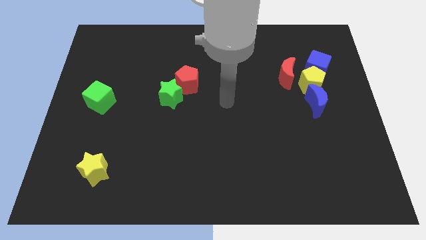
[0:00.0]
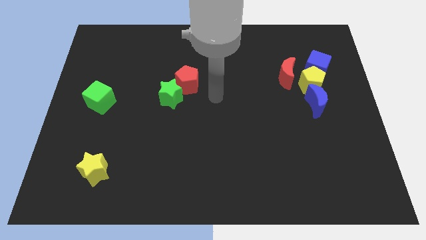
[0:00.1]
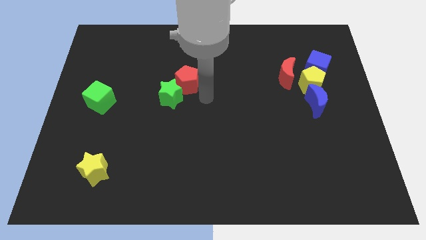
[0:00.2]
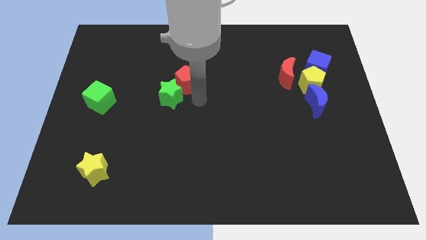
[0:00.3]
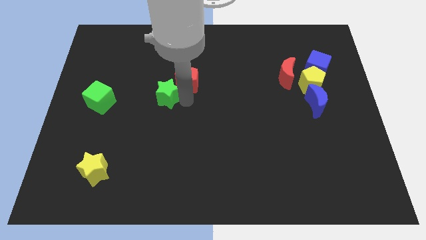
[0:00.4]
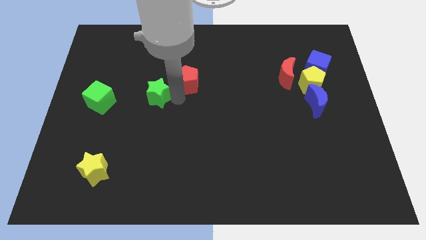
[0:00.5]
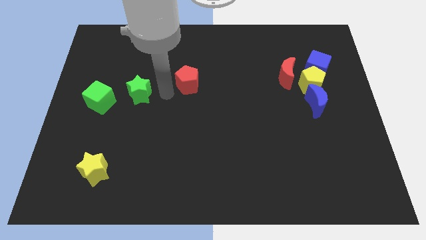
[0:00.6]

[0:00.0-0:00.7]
separate the red pentagon from the green star

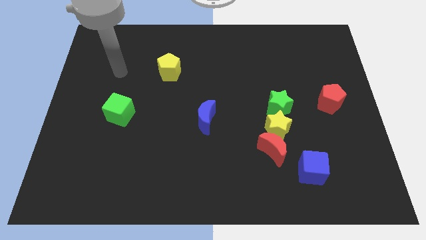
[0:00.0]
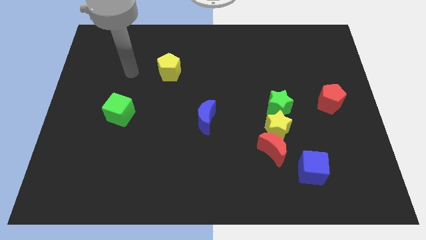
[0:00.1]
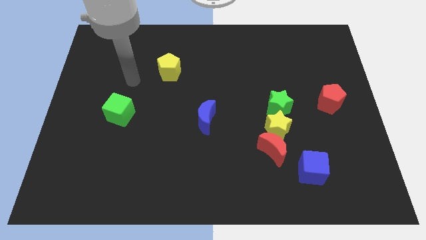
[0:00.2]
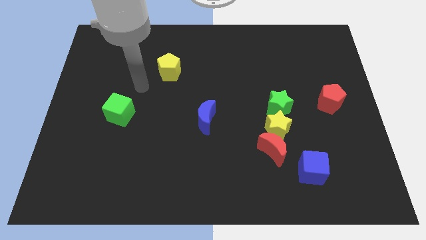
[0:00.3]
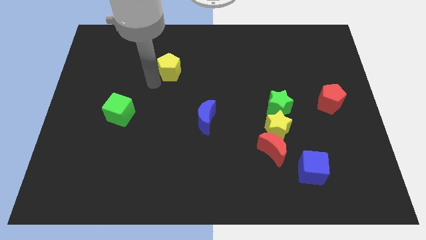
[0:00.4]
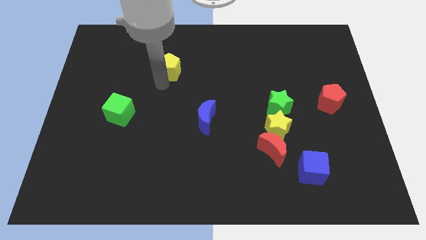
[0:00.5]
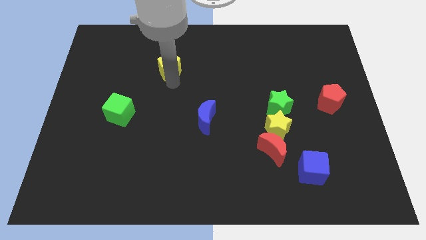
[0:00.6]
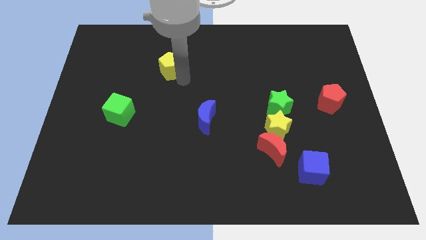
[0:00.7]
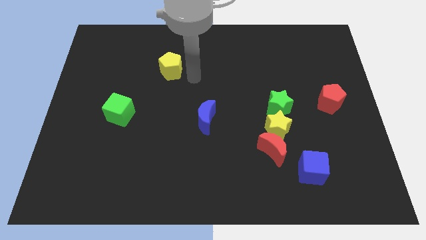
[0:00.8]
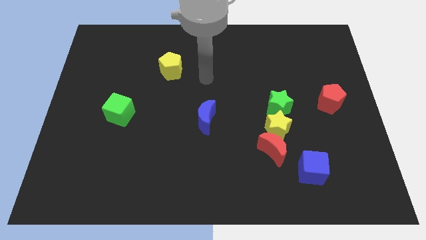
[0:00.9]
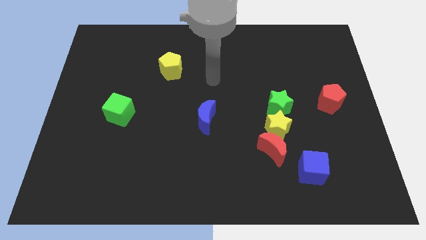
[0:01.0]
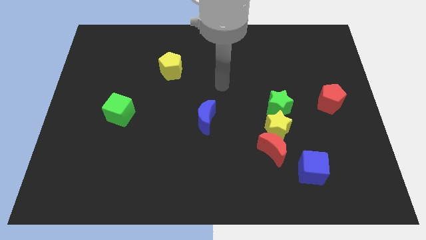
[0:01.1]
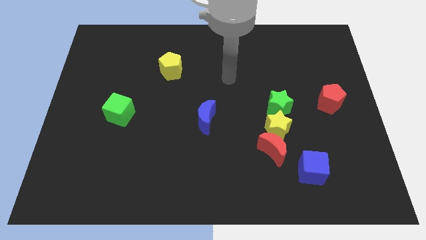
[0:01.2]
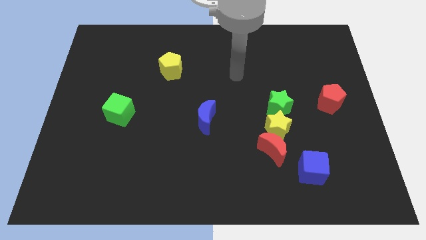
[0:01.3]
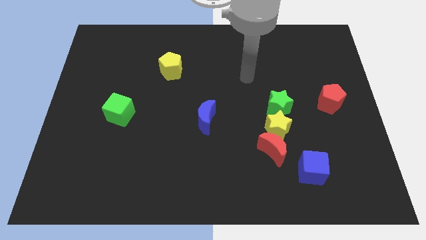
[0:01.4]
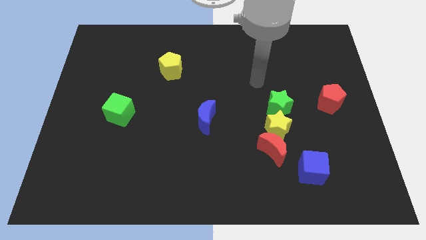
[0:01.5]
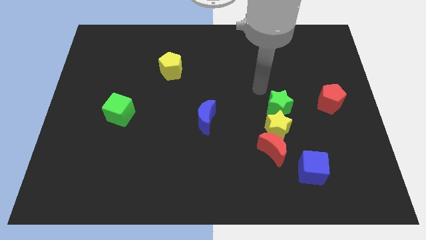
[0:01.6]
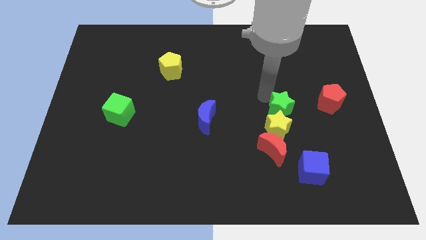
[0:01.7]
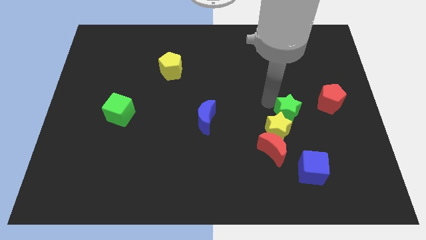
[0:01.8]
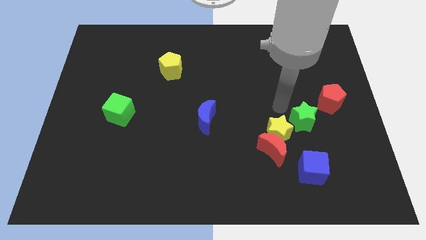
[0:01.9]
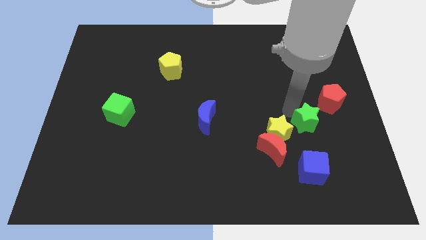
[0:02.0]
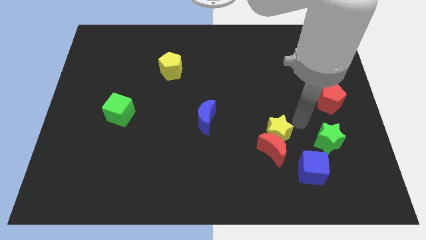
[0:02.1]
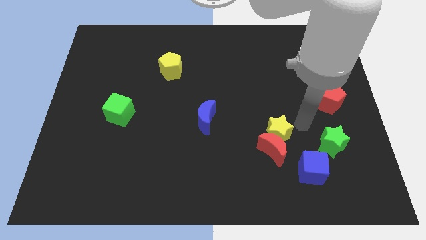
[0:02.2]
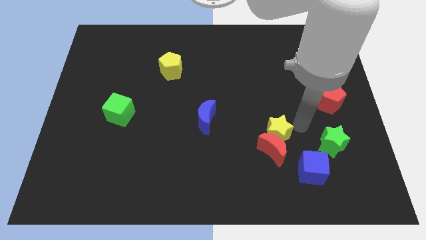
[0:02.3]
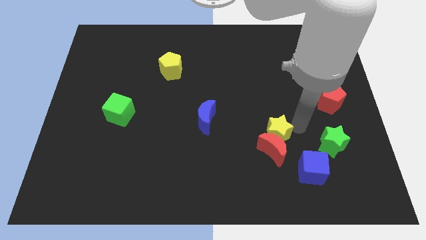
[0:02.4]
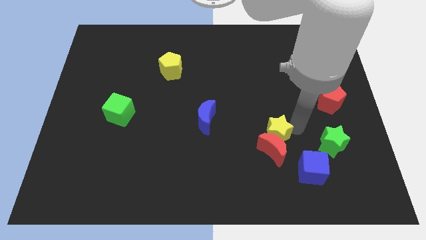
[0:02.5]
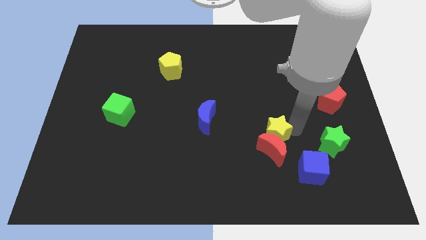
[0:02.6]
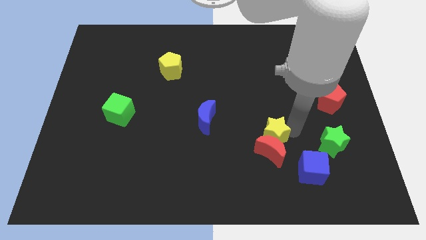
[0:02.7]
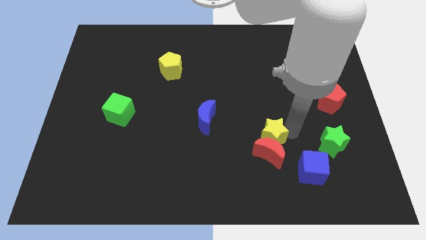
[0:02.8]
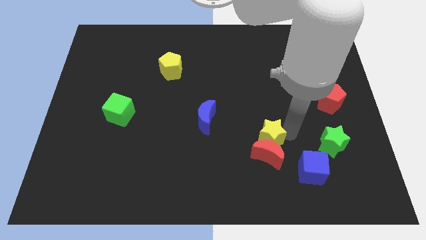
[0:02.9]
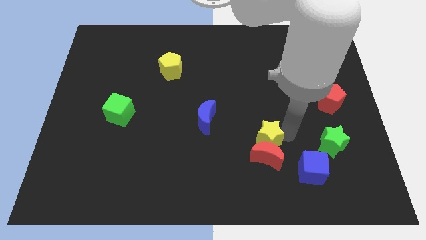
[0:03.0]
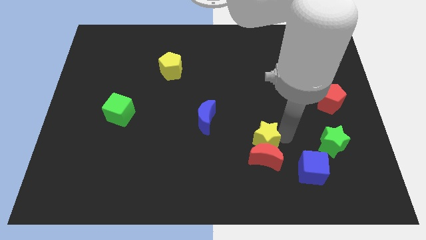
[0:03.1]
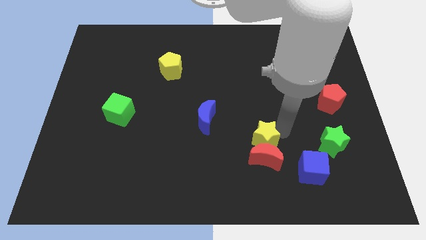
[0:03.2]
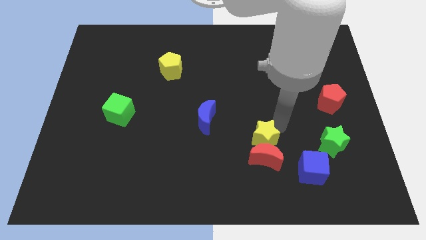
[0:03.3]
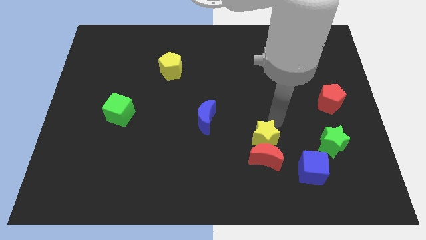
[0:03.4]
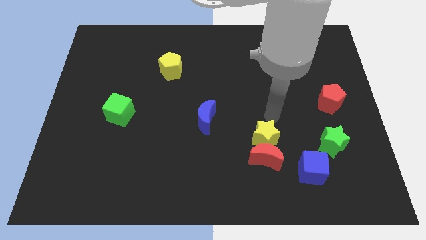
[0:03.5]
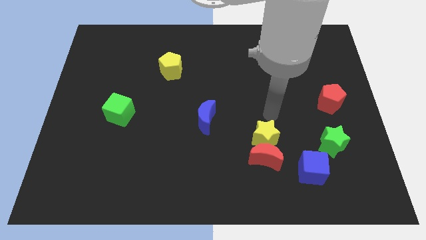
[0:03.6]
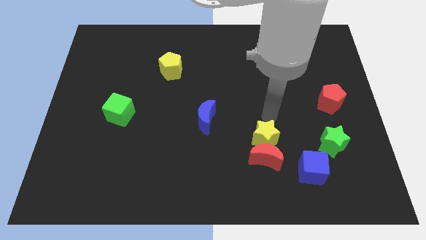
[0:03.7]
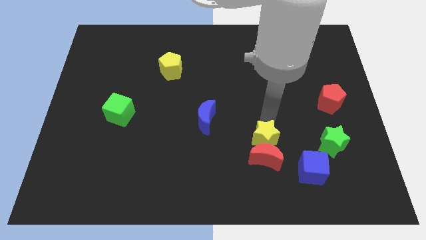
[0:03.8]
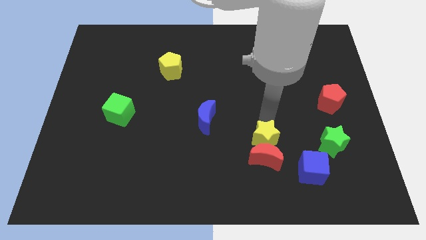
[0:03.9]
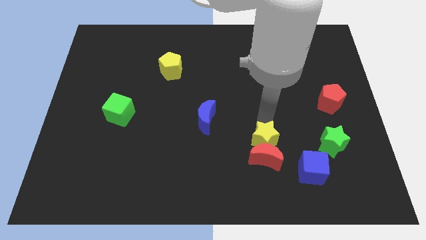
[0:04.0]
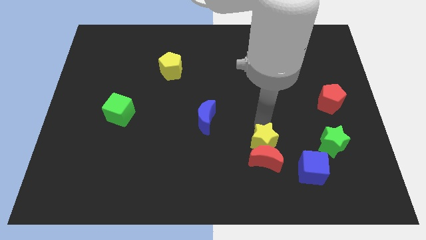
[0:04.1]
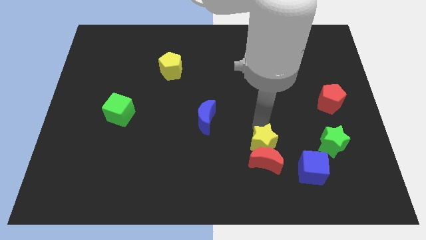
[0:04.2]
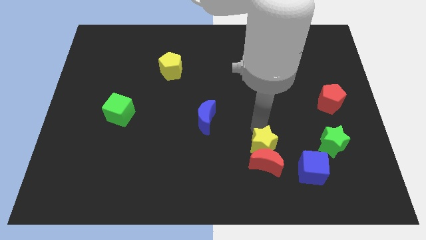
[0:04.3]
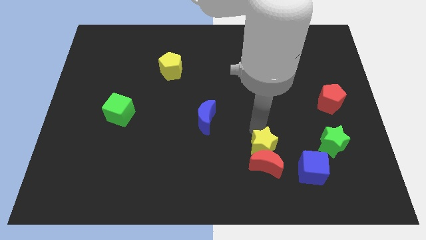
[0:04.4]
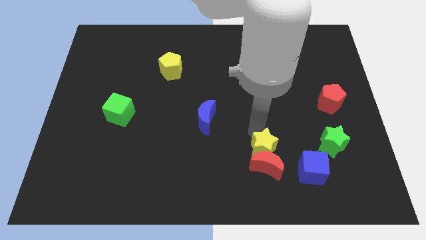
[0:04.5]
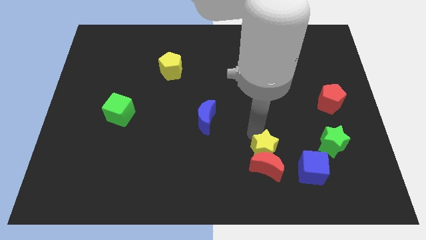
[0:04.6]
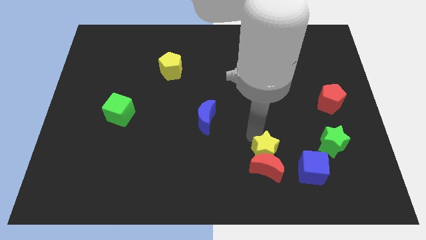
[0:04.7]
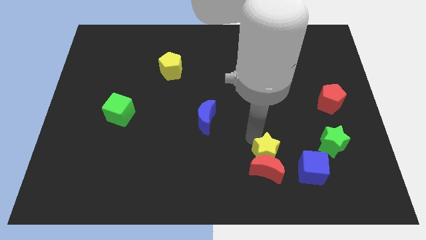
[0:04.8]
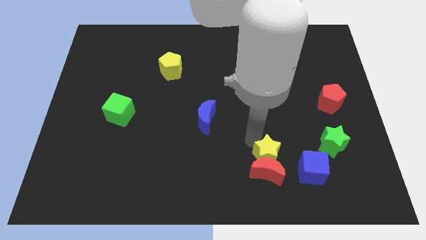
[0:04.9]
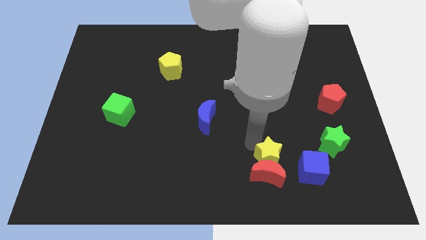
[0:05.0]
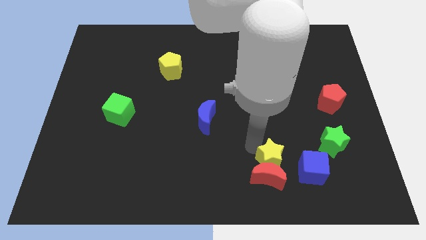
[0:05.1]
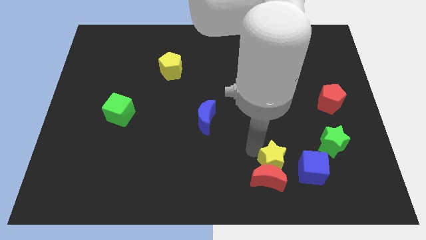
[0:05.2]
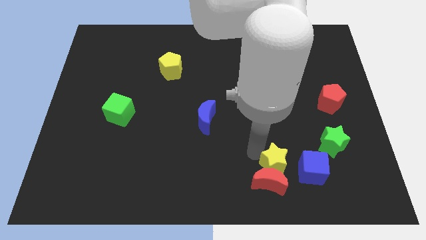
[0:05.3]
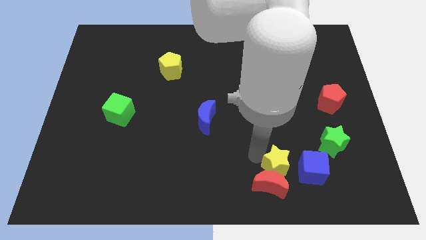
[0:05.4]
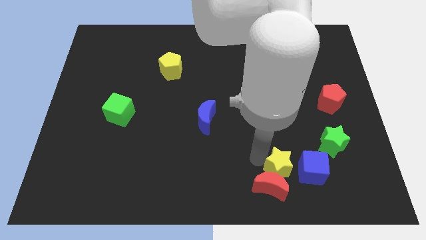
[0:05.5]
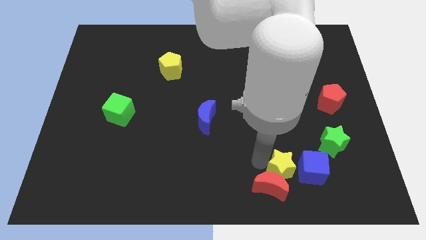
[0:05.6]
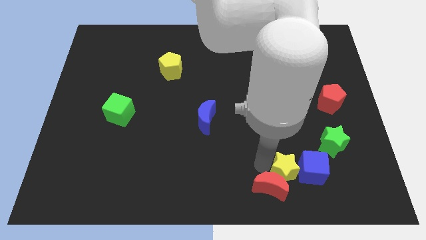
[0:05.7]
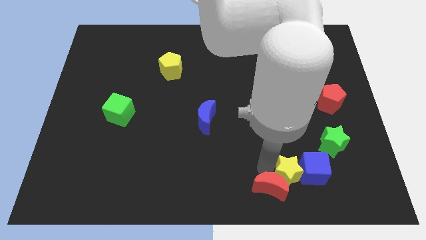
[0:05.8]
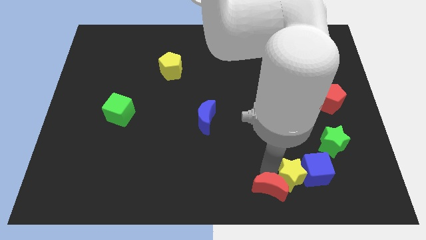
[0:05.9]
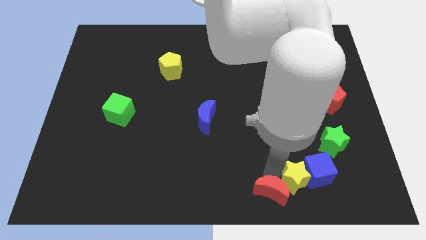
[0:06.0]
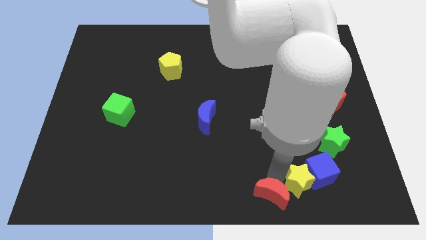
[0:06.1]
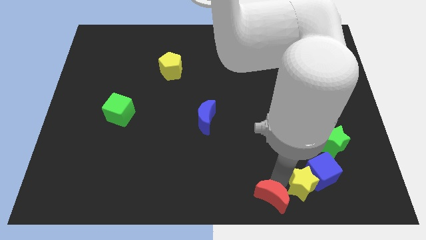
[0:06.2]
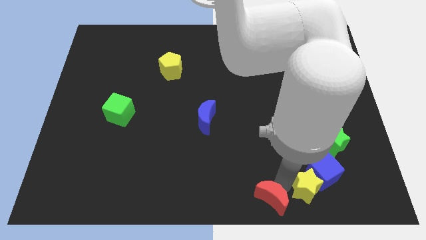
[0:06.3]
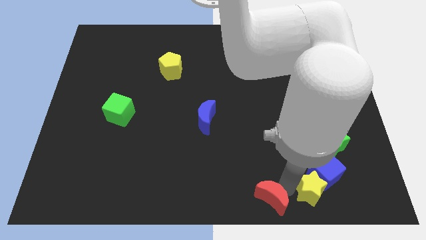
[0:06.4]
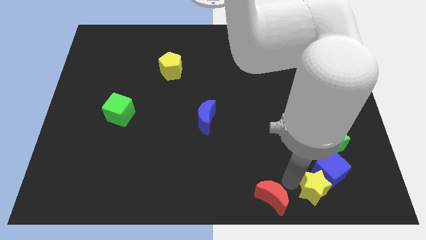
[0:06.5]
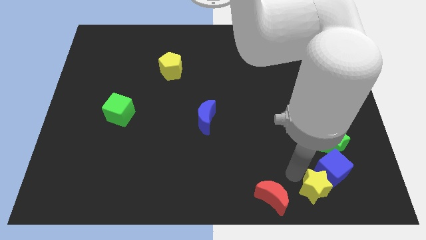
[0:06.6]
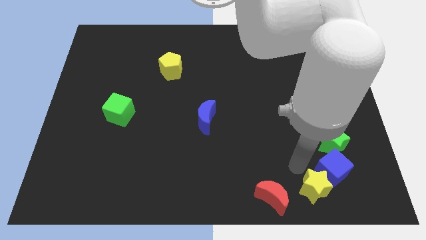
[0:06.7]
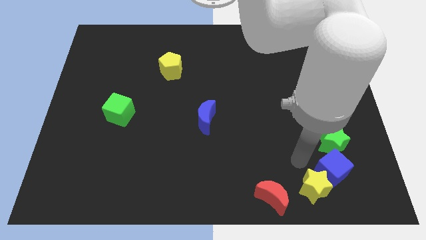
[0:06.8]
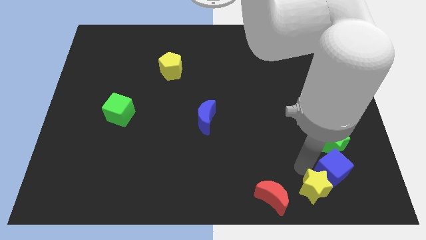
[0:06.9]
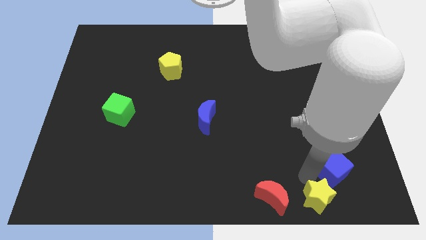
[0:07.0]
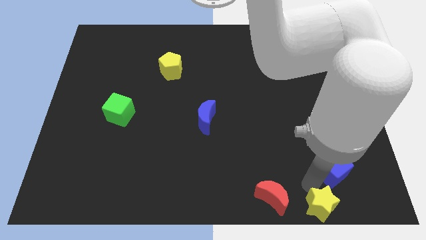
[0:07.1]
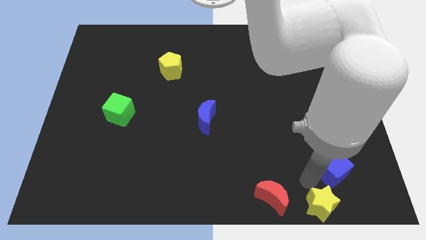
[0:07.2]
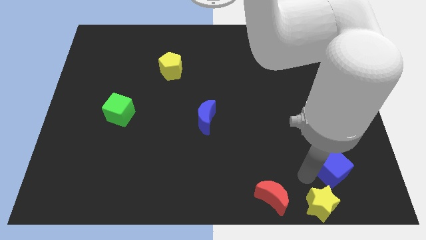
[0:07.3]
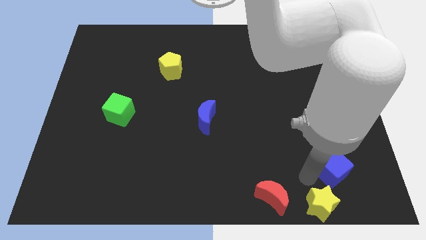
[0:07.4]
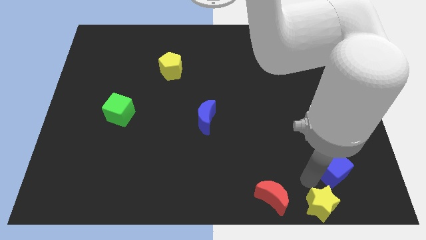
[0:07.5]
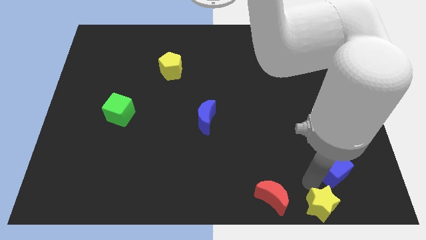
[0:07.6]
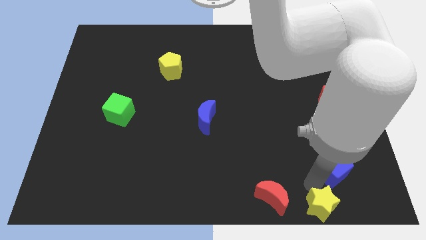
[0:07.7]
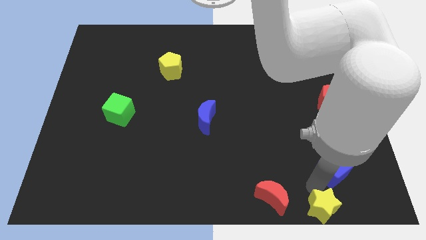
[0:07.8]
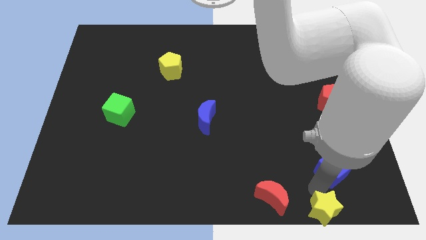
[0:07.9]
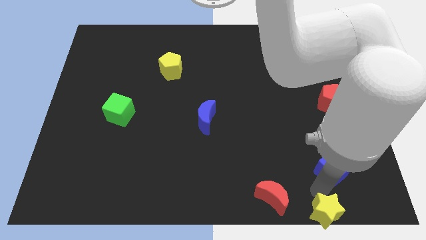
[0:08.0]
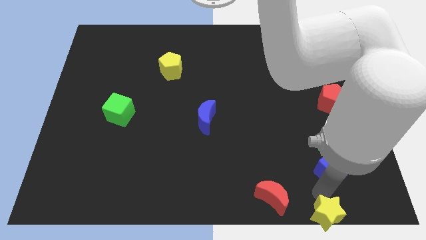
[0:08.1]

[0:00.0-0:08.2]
pull the yellow star apart from the red moon and green star

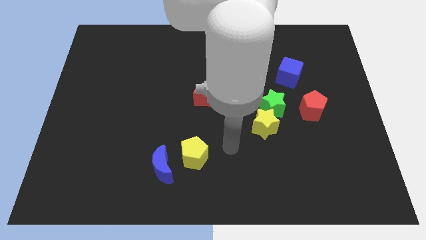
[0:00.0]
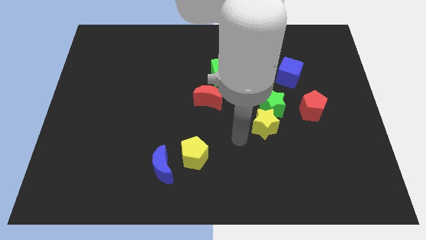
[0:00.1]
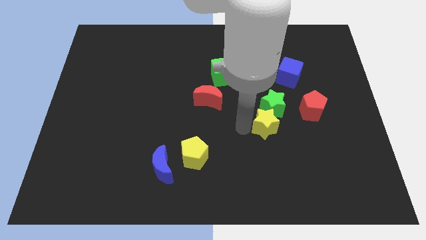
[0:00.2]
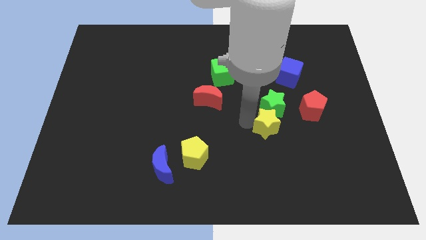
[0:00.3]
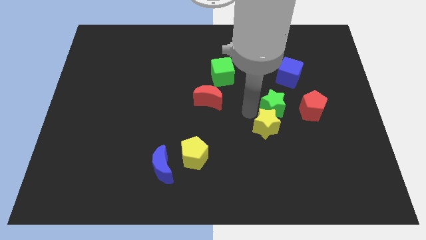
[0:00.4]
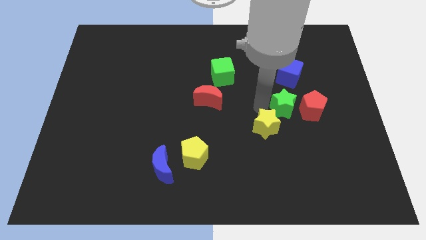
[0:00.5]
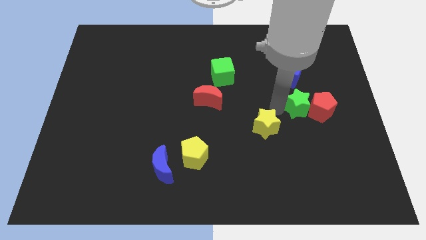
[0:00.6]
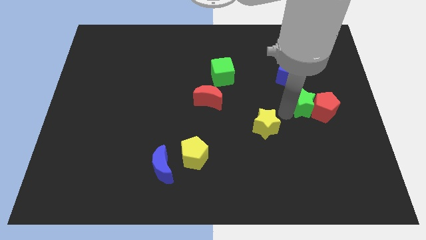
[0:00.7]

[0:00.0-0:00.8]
pull the yellow star apart from the green star
